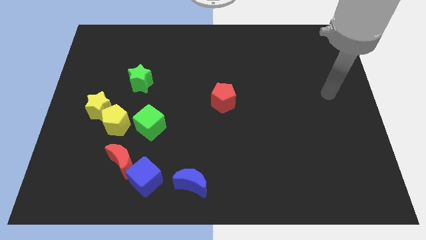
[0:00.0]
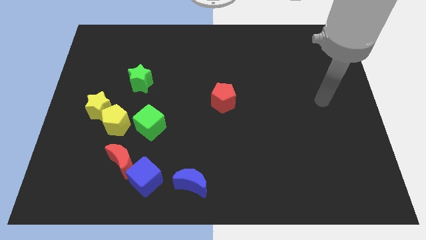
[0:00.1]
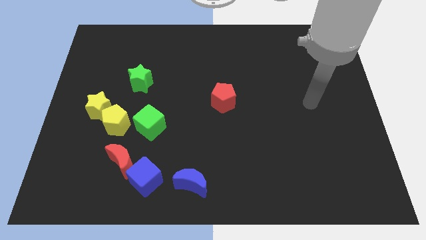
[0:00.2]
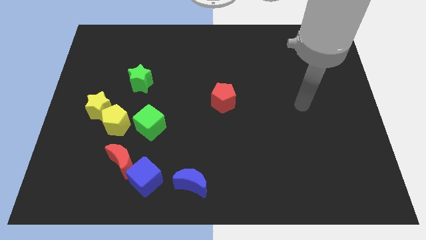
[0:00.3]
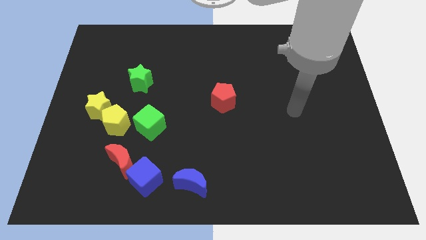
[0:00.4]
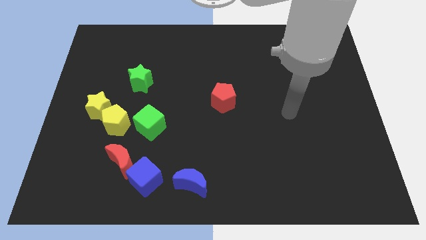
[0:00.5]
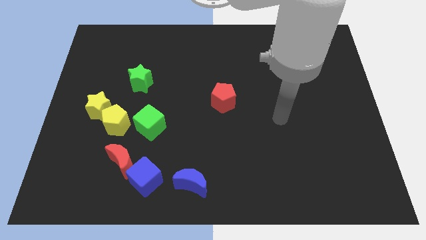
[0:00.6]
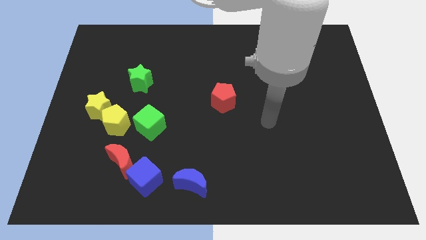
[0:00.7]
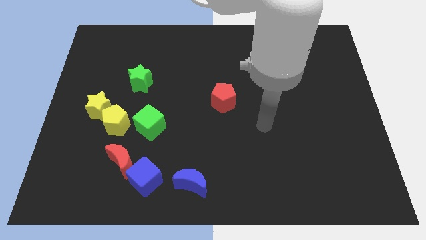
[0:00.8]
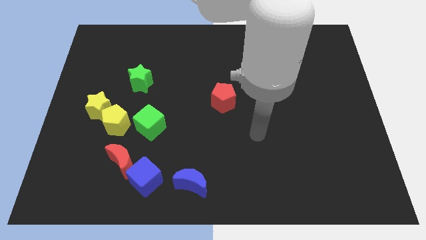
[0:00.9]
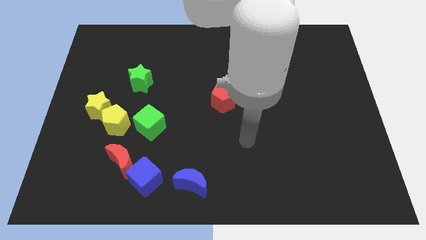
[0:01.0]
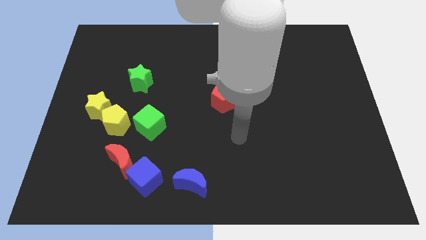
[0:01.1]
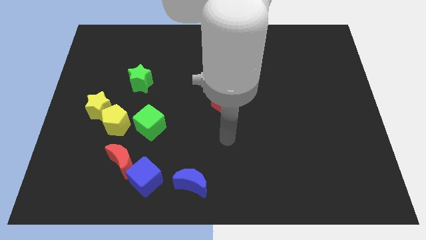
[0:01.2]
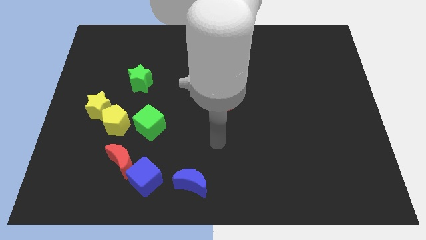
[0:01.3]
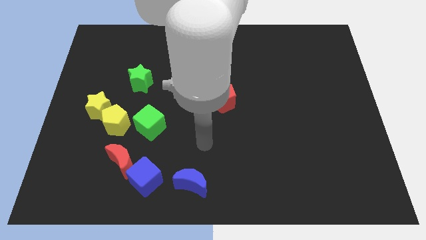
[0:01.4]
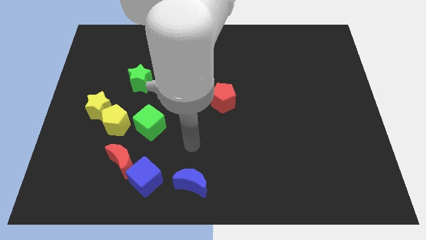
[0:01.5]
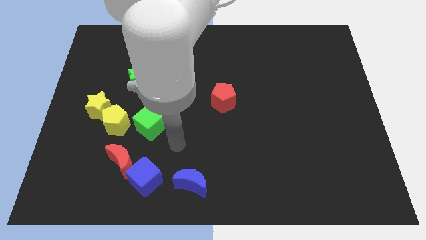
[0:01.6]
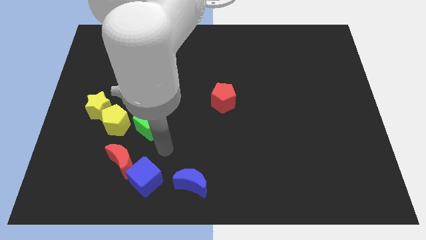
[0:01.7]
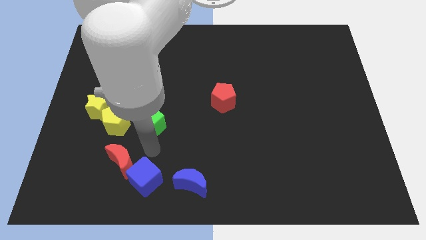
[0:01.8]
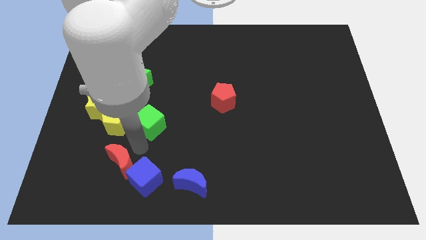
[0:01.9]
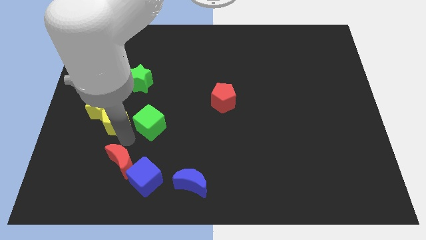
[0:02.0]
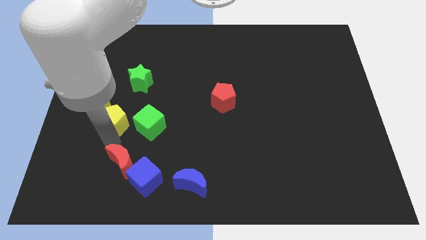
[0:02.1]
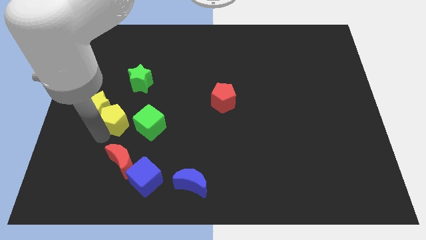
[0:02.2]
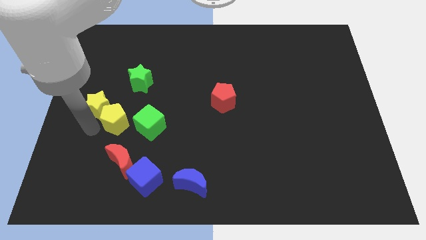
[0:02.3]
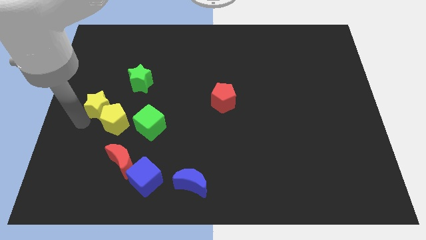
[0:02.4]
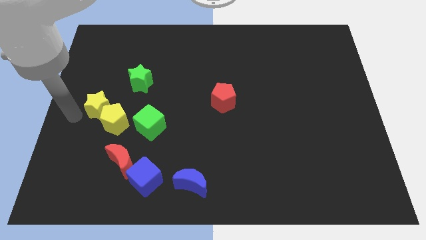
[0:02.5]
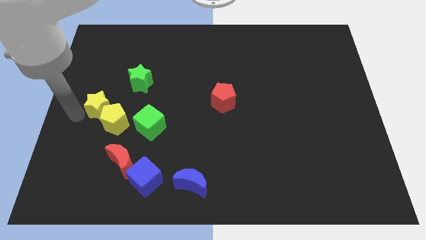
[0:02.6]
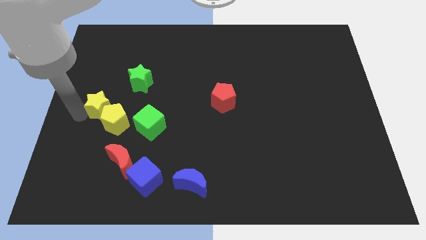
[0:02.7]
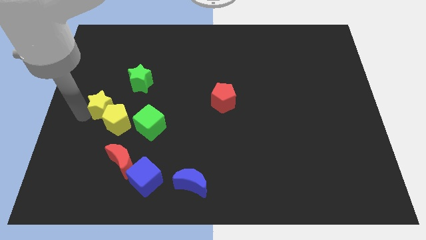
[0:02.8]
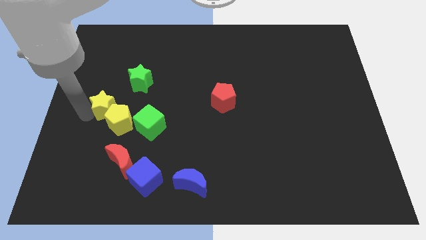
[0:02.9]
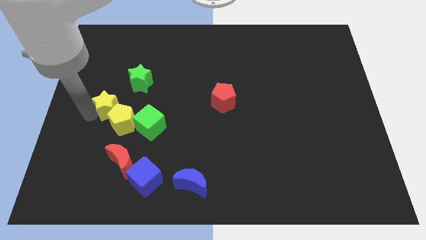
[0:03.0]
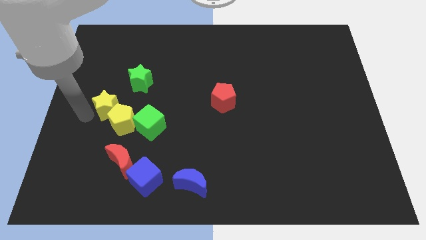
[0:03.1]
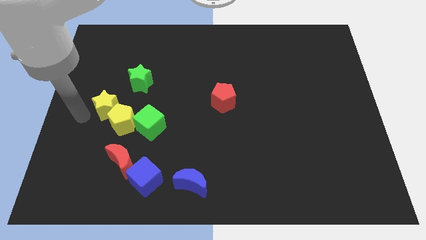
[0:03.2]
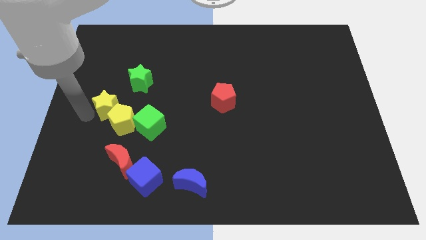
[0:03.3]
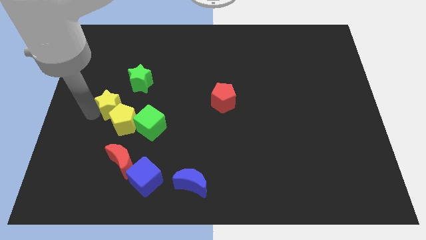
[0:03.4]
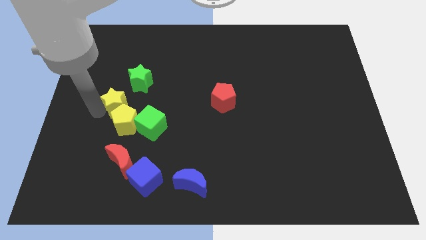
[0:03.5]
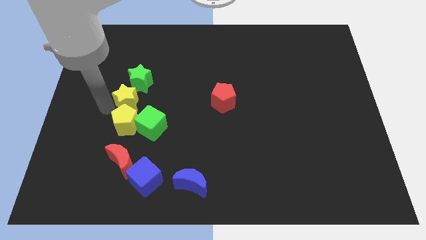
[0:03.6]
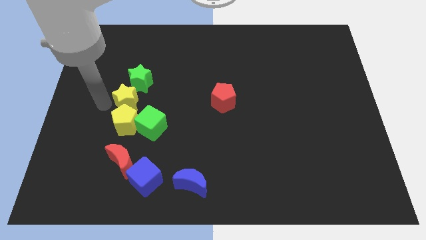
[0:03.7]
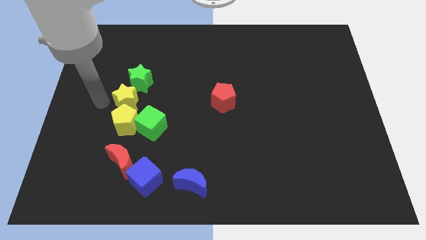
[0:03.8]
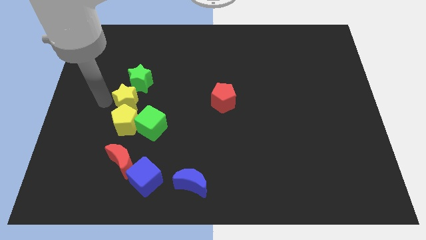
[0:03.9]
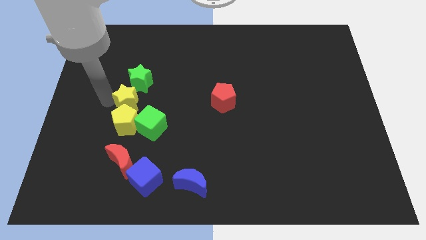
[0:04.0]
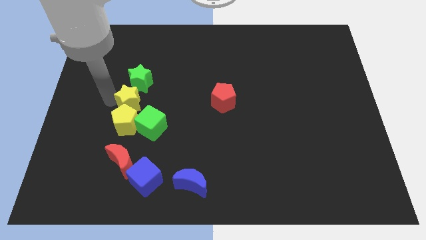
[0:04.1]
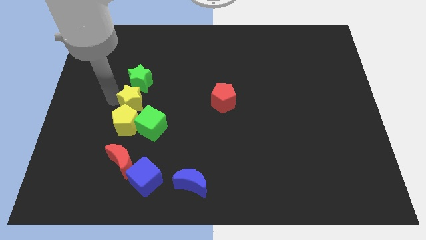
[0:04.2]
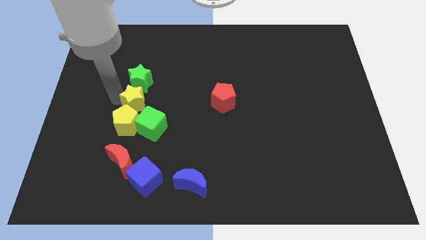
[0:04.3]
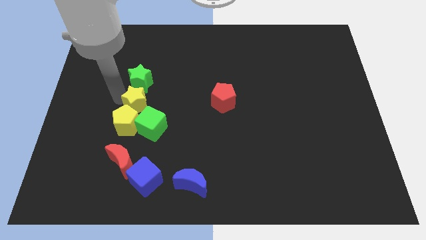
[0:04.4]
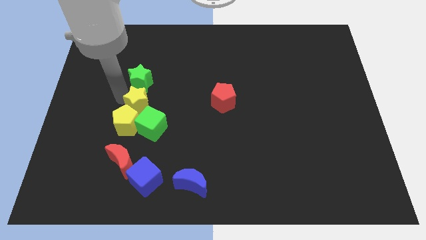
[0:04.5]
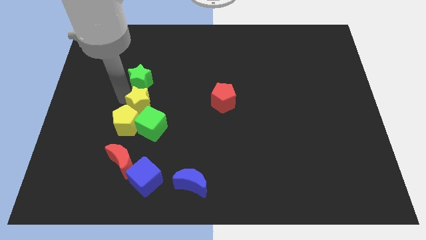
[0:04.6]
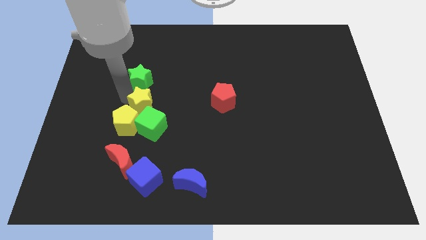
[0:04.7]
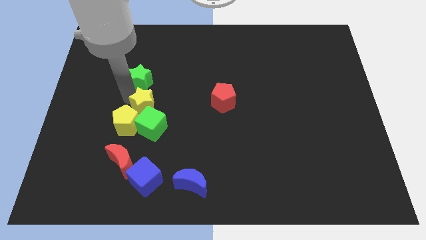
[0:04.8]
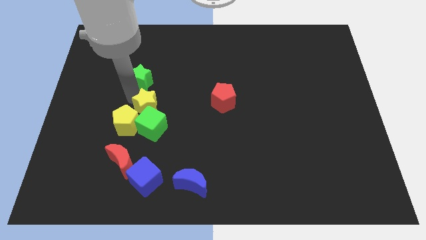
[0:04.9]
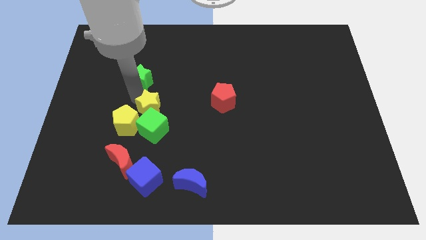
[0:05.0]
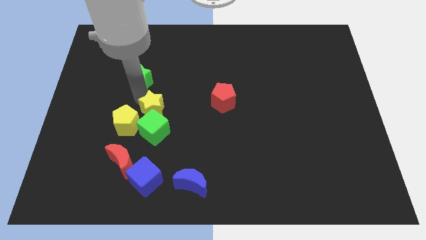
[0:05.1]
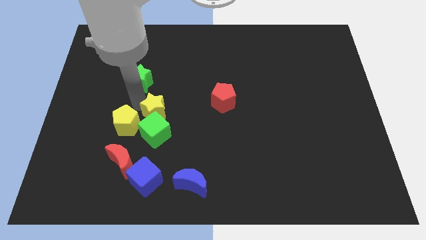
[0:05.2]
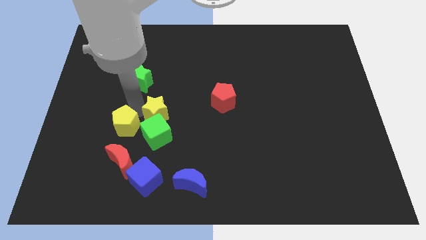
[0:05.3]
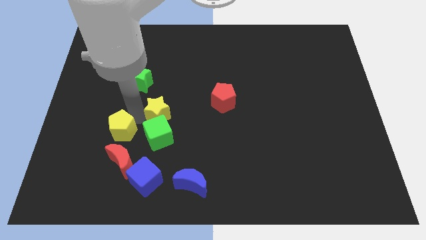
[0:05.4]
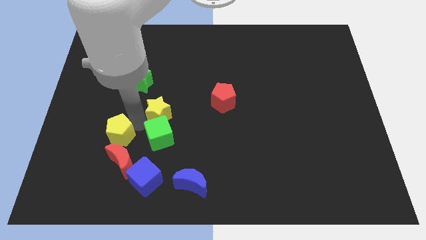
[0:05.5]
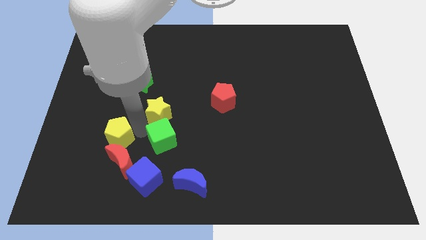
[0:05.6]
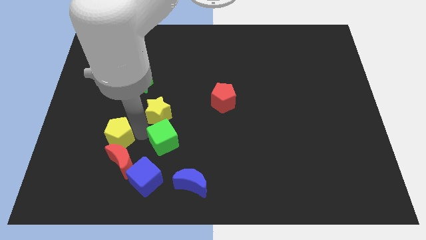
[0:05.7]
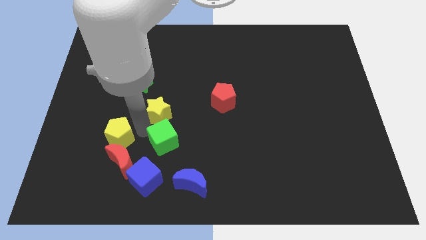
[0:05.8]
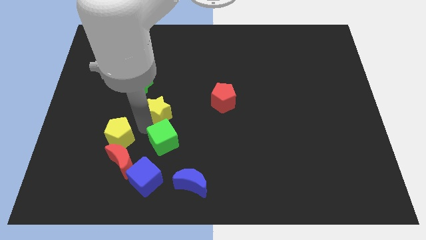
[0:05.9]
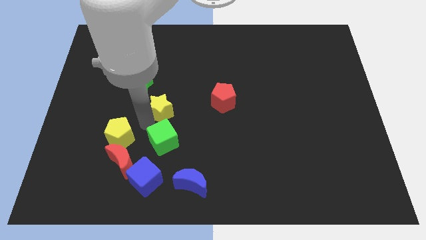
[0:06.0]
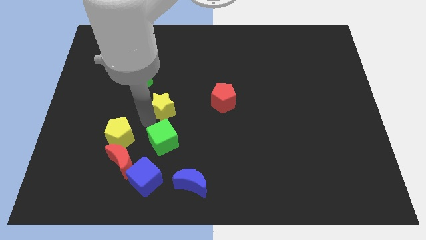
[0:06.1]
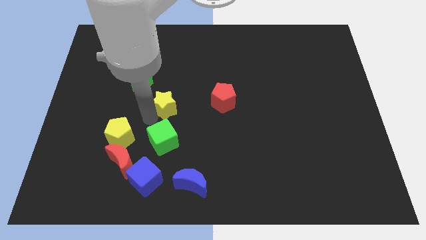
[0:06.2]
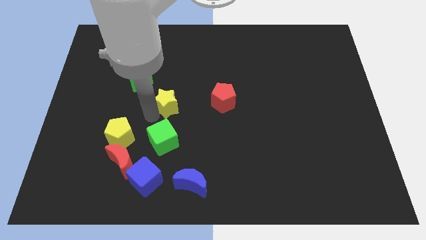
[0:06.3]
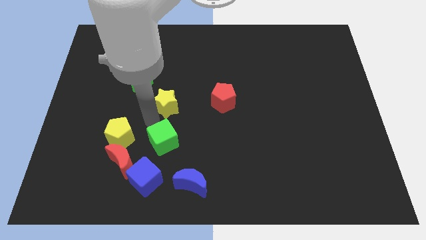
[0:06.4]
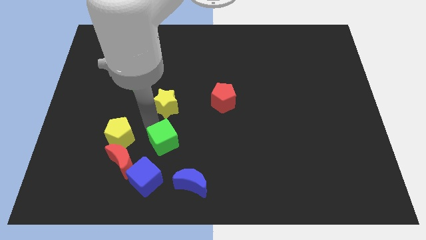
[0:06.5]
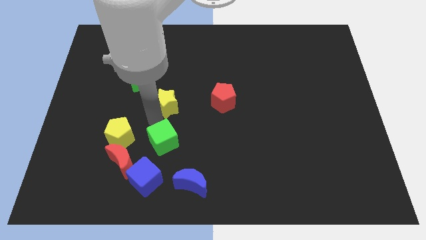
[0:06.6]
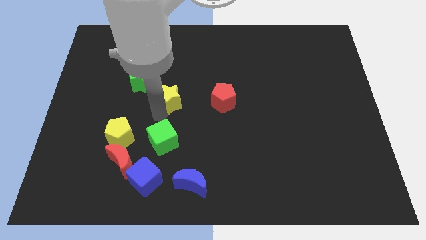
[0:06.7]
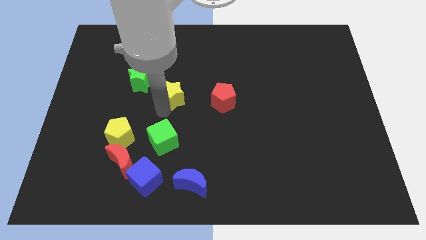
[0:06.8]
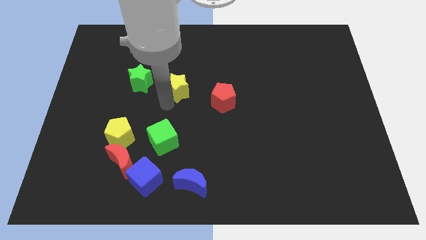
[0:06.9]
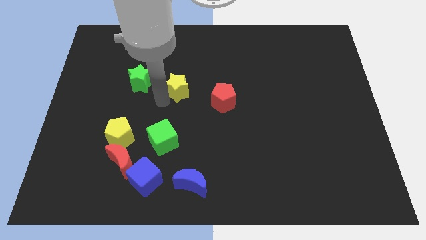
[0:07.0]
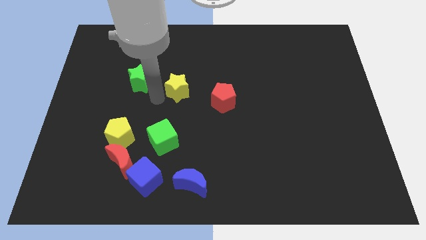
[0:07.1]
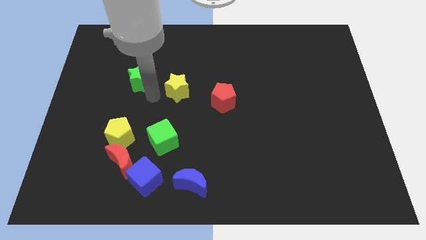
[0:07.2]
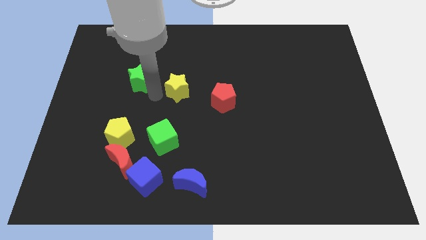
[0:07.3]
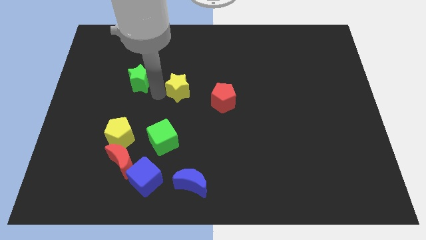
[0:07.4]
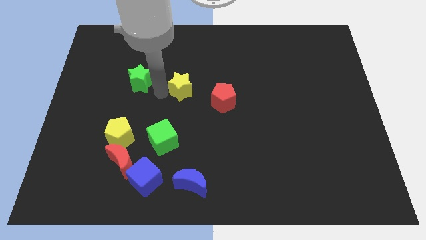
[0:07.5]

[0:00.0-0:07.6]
put the yellow star to the top left side of the red pentagon
